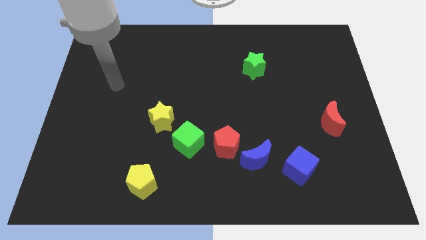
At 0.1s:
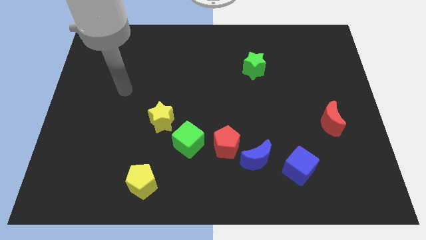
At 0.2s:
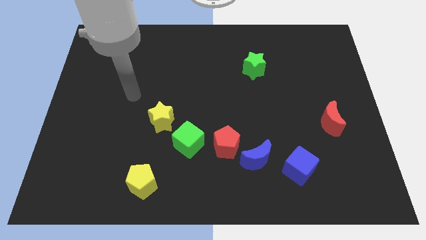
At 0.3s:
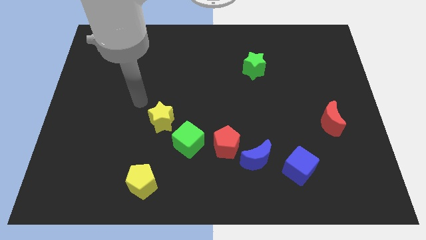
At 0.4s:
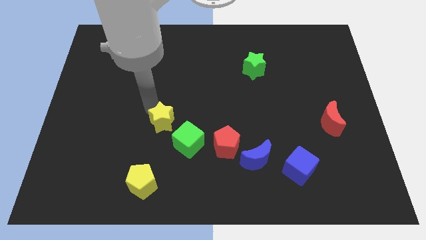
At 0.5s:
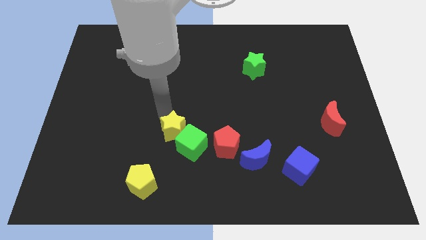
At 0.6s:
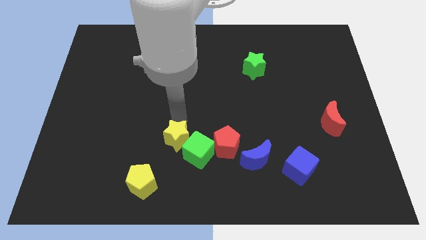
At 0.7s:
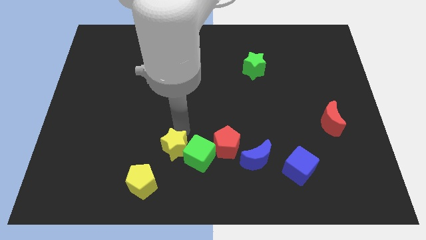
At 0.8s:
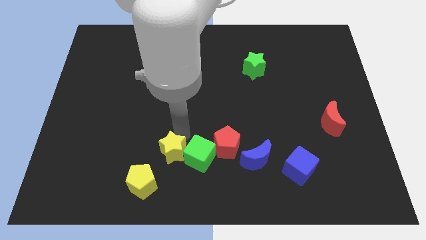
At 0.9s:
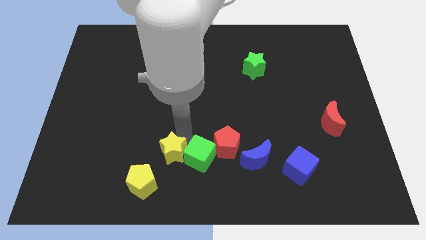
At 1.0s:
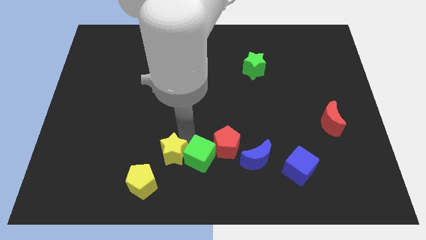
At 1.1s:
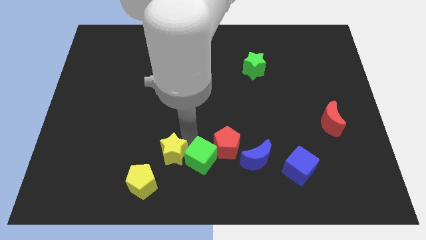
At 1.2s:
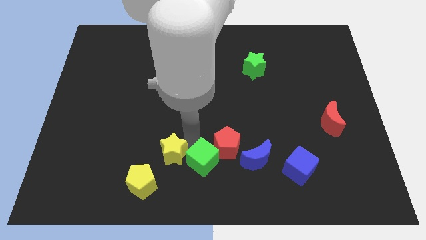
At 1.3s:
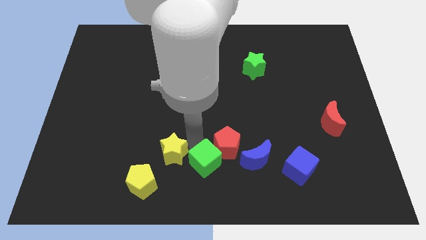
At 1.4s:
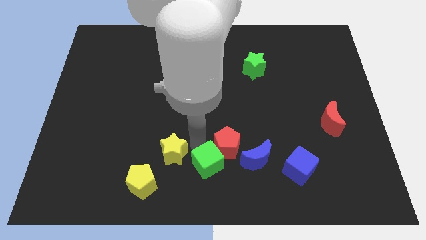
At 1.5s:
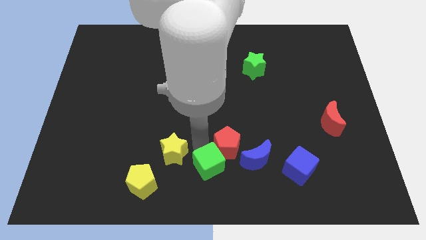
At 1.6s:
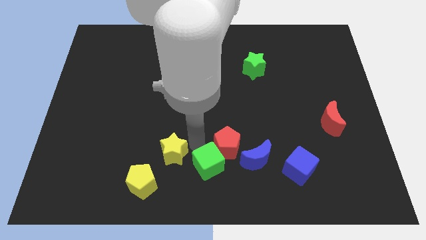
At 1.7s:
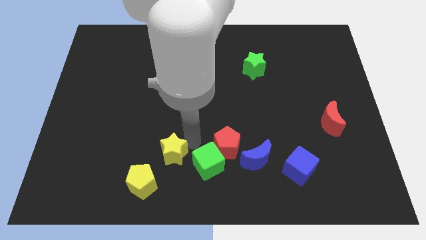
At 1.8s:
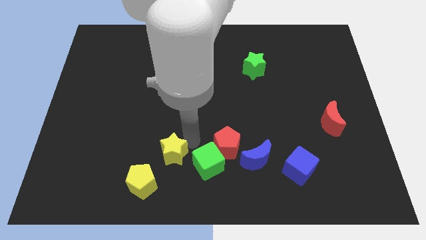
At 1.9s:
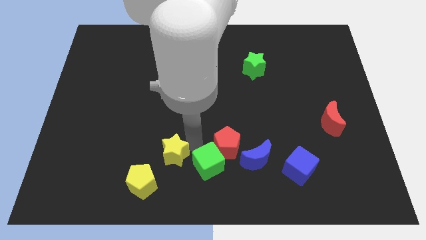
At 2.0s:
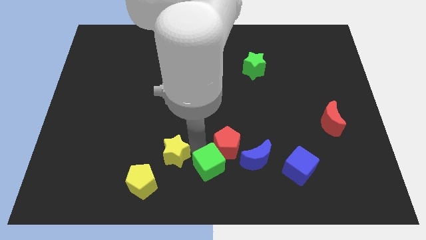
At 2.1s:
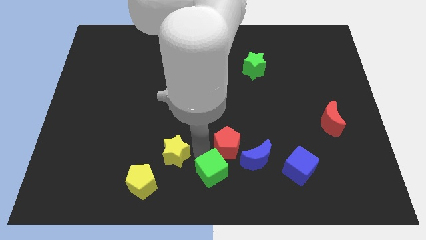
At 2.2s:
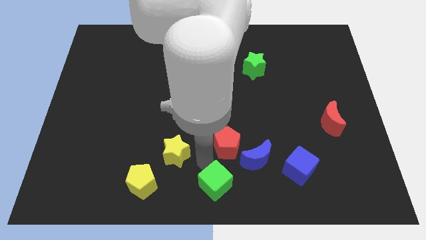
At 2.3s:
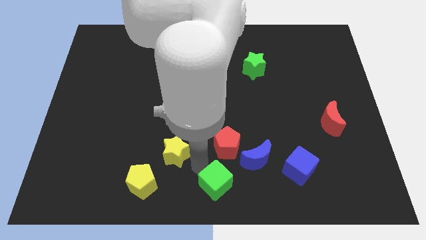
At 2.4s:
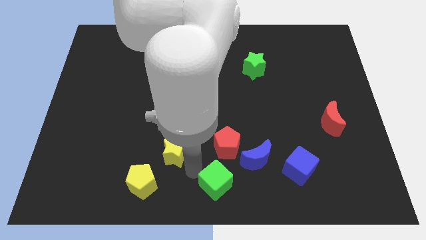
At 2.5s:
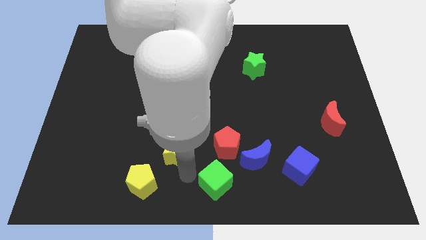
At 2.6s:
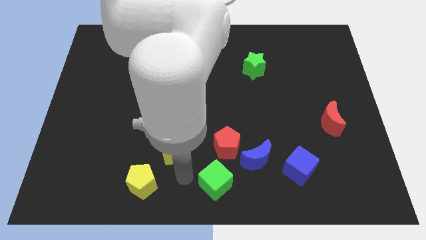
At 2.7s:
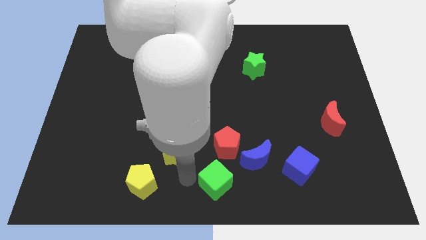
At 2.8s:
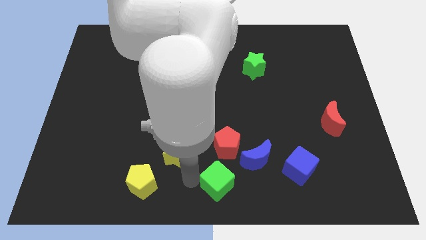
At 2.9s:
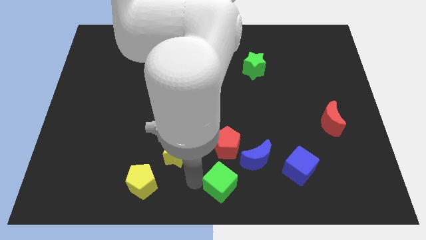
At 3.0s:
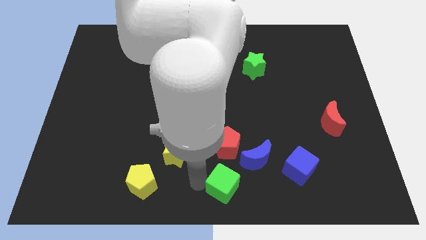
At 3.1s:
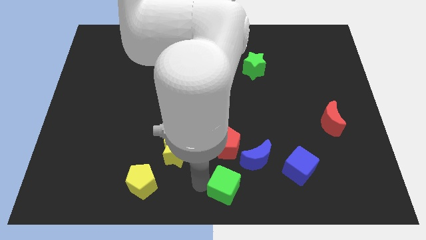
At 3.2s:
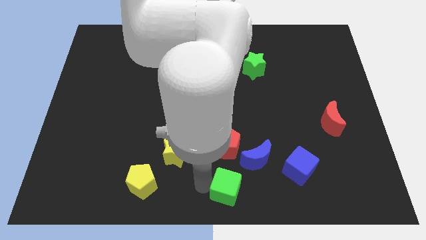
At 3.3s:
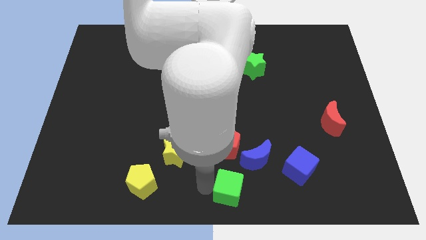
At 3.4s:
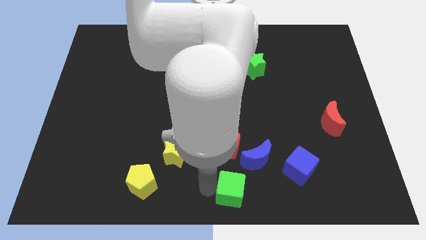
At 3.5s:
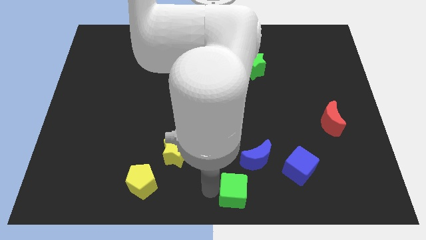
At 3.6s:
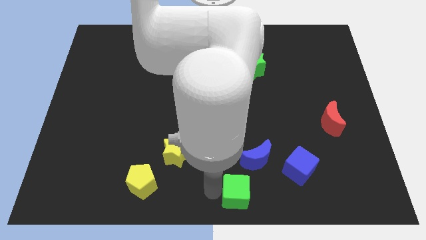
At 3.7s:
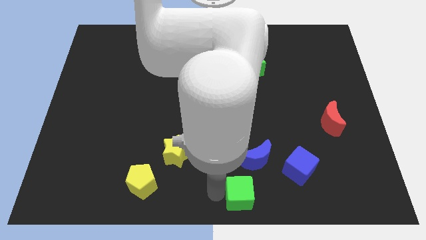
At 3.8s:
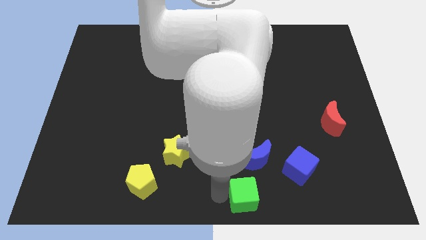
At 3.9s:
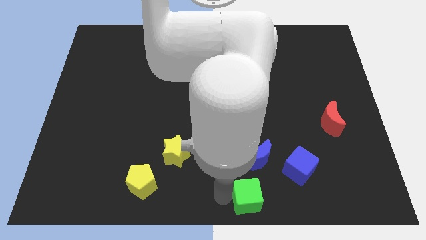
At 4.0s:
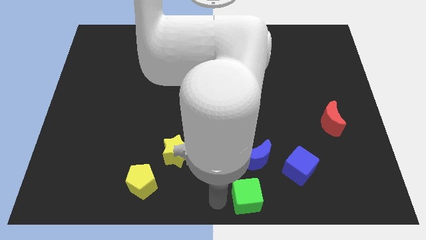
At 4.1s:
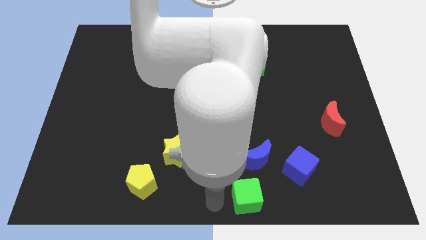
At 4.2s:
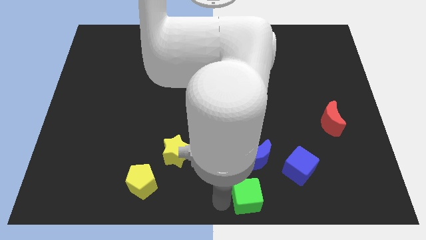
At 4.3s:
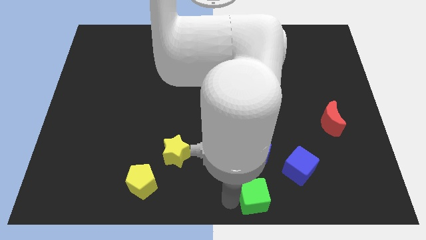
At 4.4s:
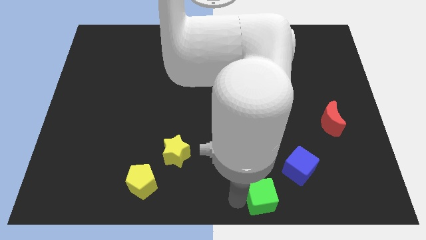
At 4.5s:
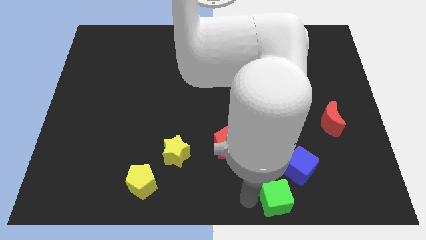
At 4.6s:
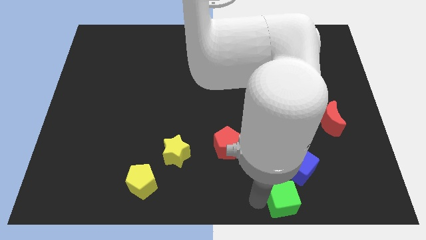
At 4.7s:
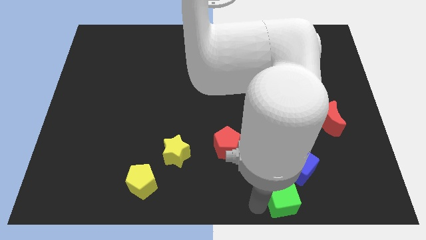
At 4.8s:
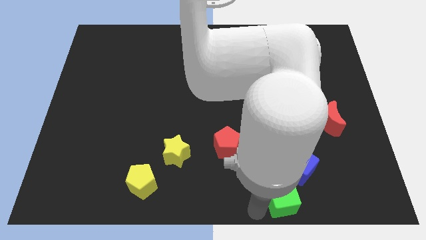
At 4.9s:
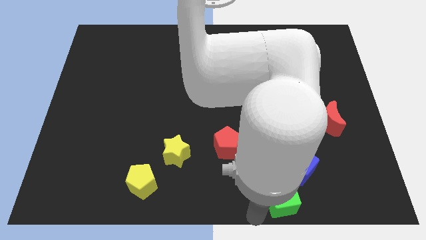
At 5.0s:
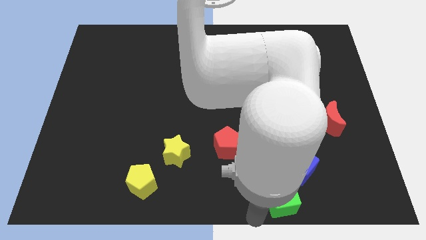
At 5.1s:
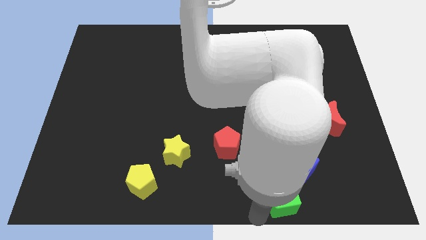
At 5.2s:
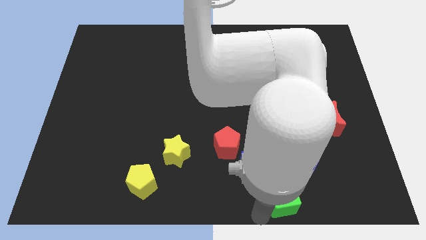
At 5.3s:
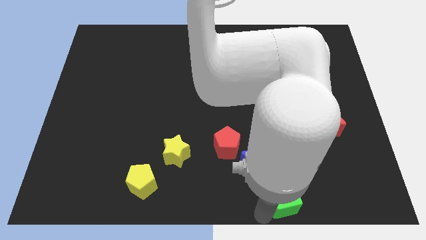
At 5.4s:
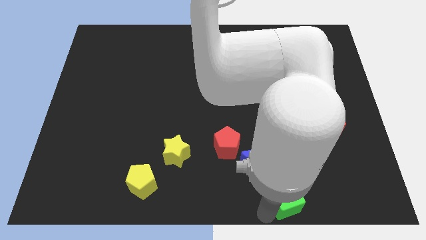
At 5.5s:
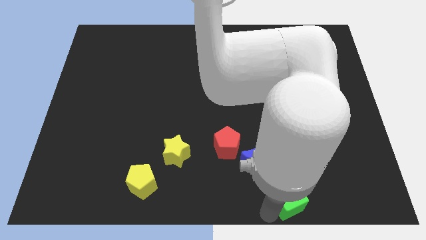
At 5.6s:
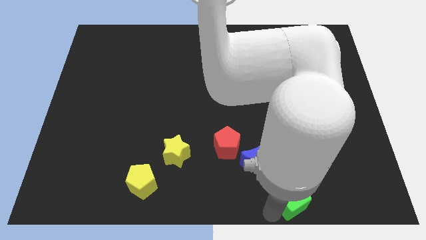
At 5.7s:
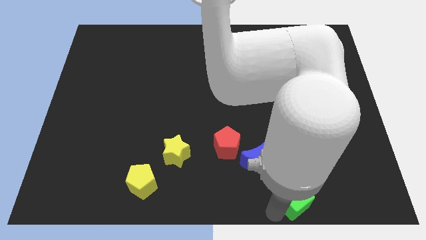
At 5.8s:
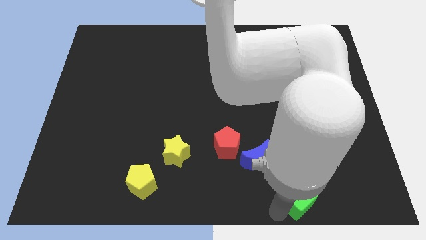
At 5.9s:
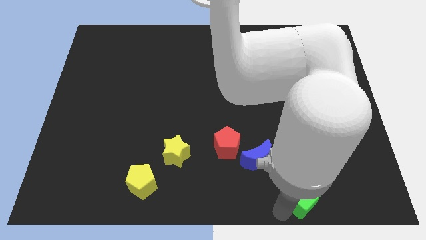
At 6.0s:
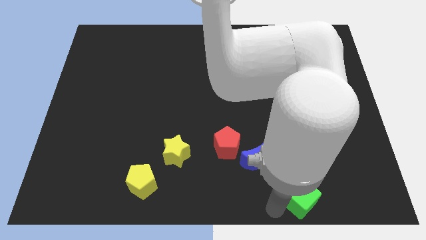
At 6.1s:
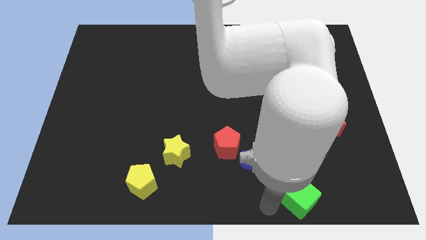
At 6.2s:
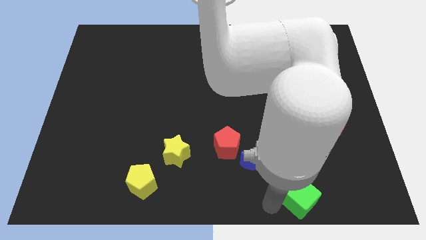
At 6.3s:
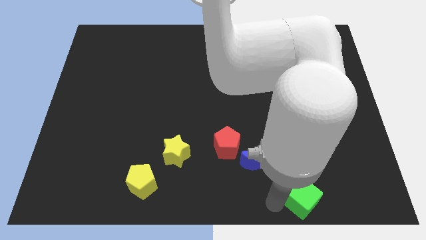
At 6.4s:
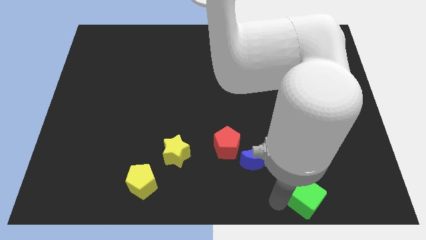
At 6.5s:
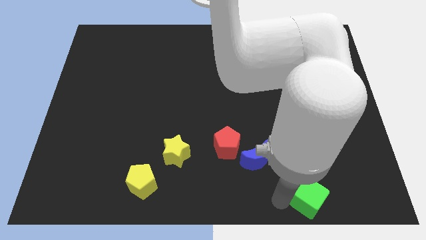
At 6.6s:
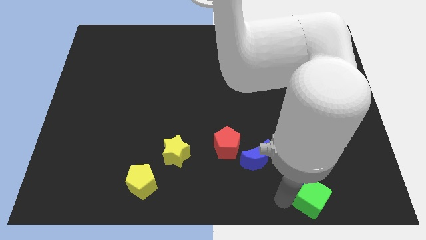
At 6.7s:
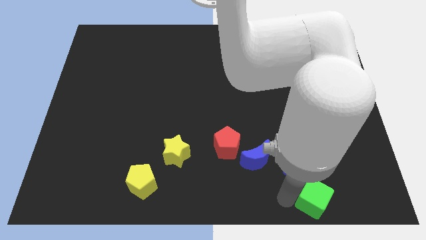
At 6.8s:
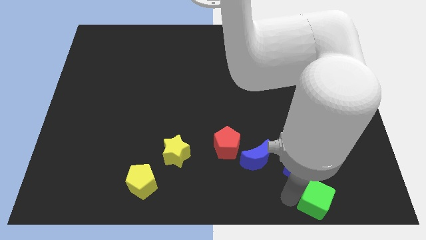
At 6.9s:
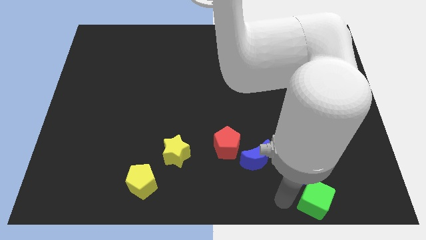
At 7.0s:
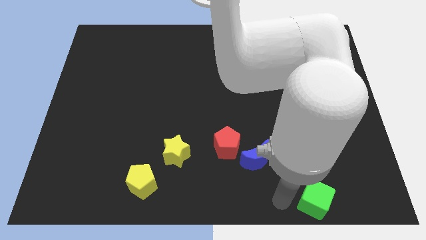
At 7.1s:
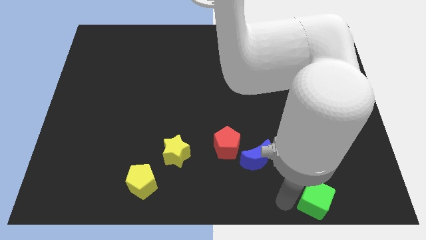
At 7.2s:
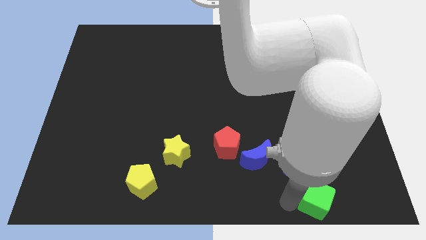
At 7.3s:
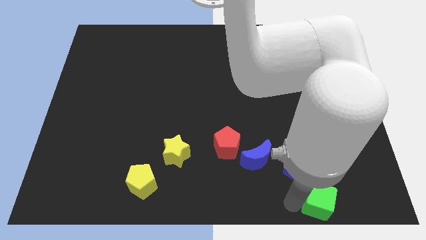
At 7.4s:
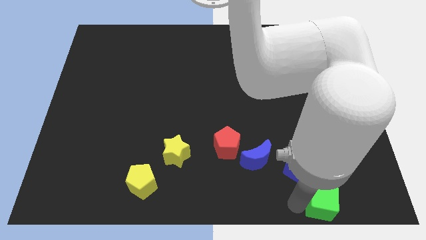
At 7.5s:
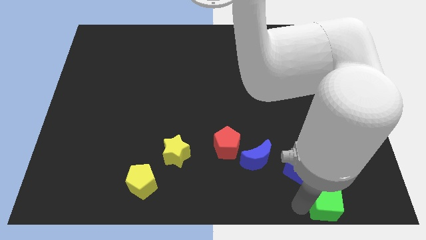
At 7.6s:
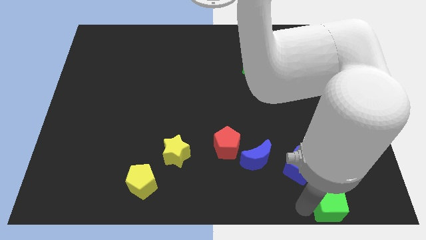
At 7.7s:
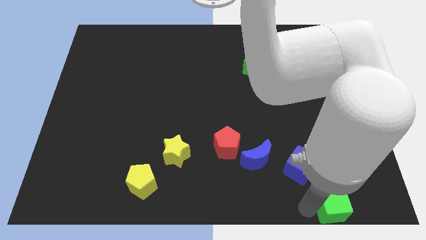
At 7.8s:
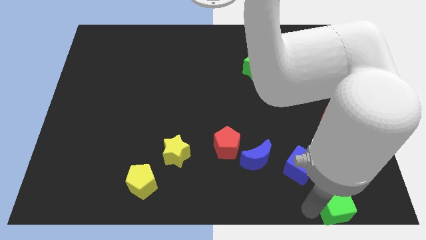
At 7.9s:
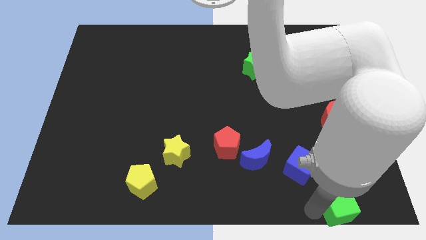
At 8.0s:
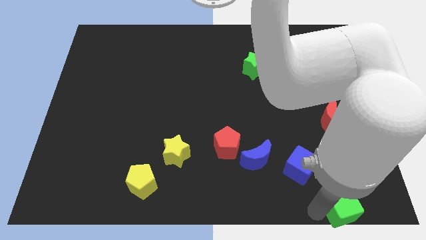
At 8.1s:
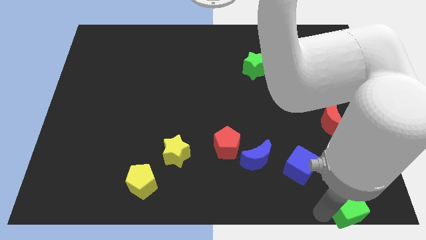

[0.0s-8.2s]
push the green cube to the bottom right
